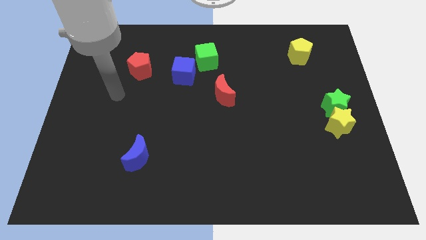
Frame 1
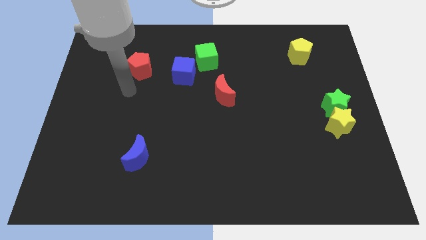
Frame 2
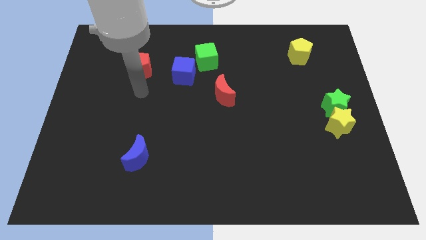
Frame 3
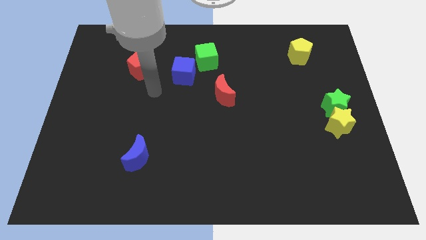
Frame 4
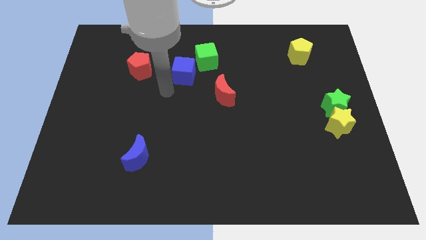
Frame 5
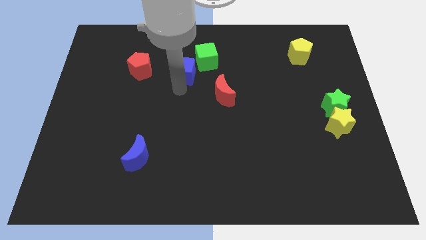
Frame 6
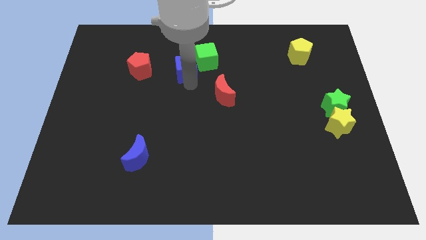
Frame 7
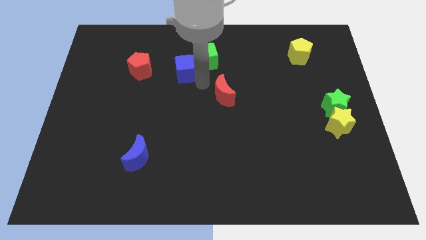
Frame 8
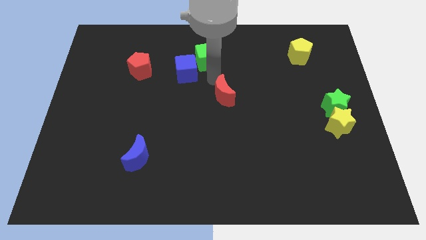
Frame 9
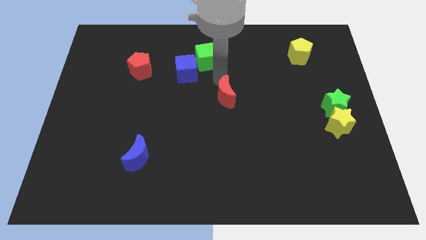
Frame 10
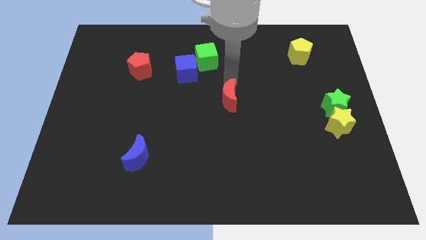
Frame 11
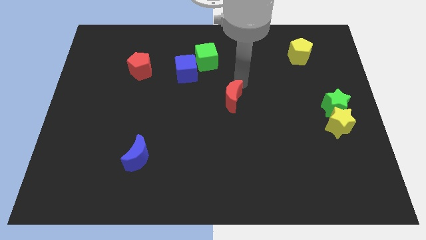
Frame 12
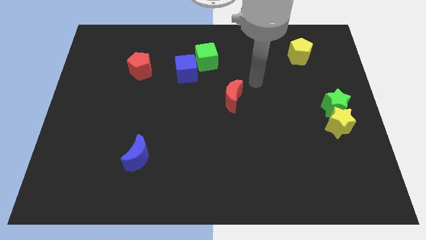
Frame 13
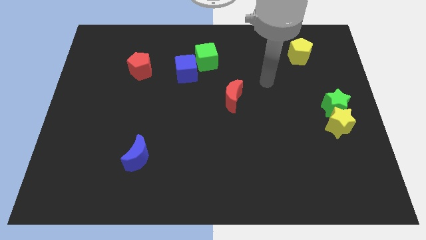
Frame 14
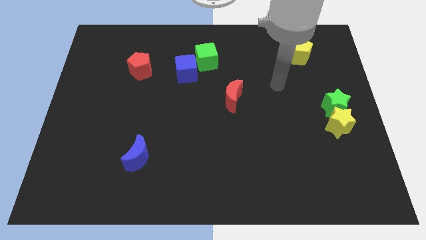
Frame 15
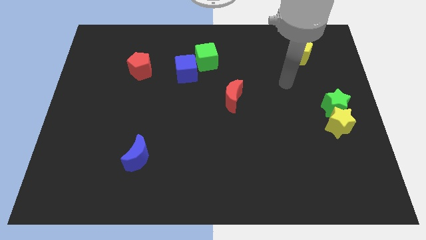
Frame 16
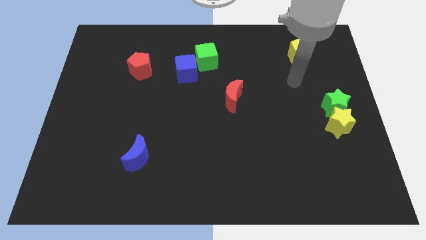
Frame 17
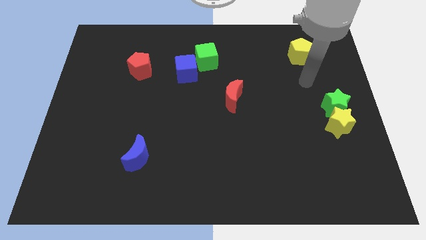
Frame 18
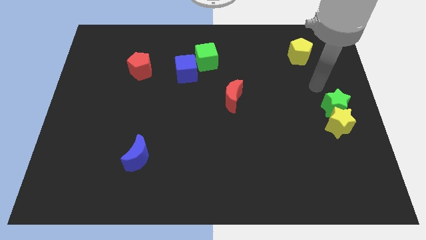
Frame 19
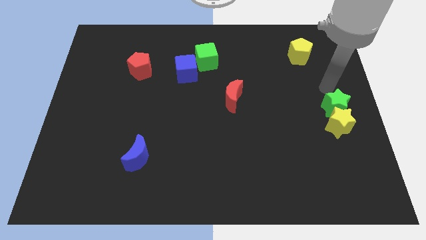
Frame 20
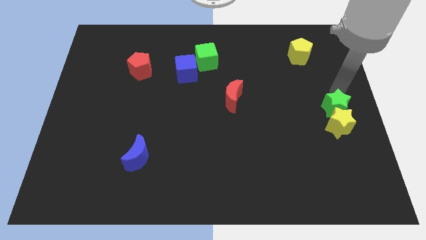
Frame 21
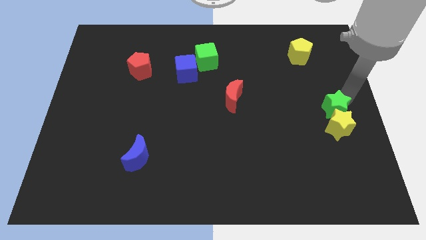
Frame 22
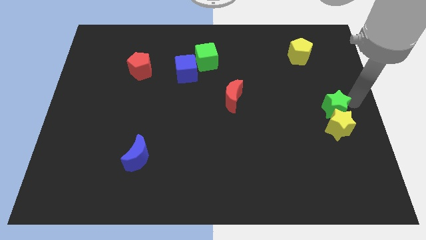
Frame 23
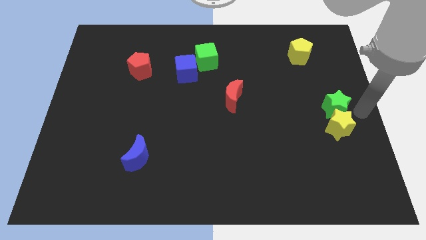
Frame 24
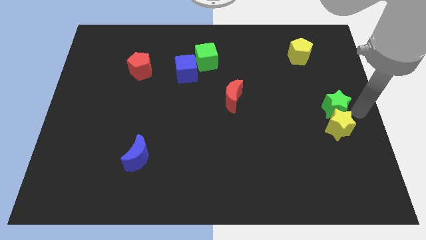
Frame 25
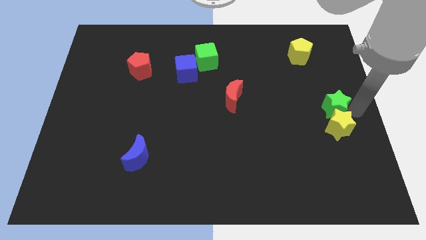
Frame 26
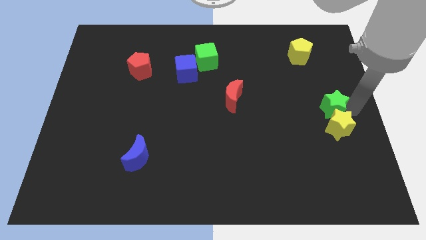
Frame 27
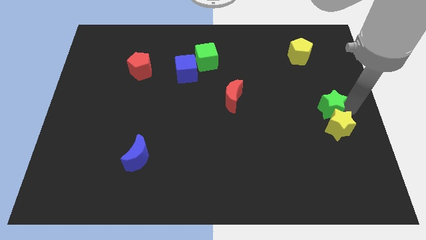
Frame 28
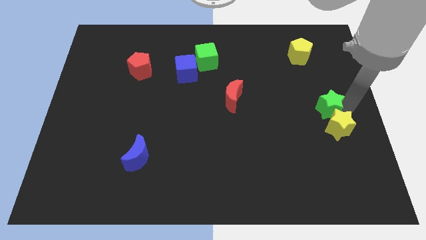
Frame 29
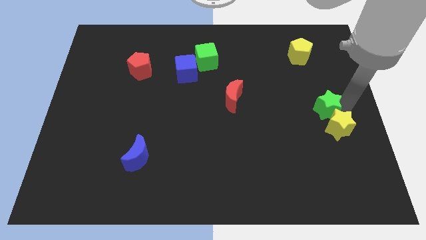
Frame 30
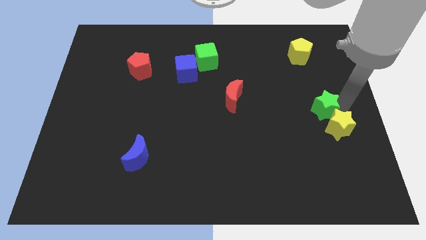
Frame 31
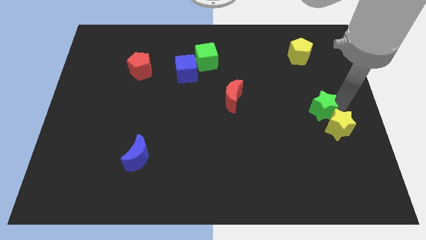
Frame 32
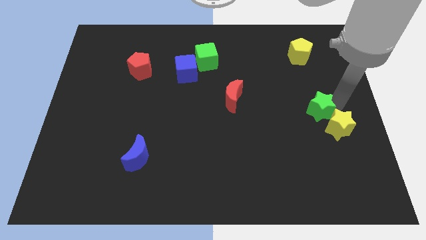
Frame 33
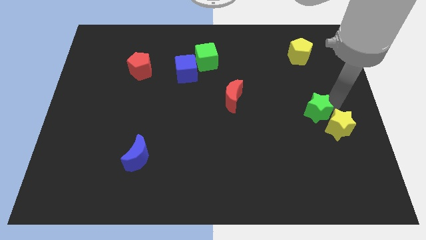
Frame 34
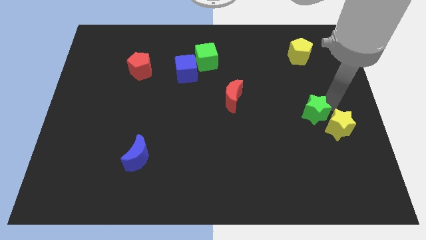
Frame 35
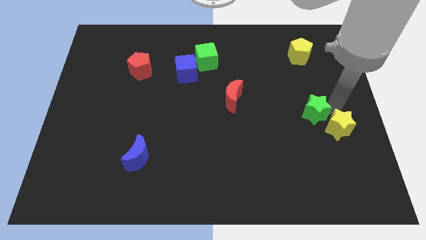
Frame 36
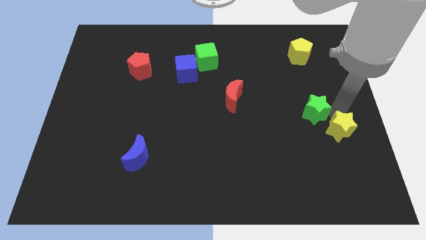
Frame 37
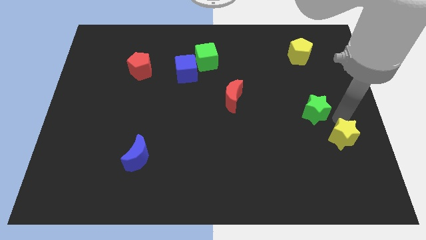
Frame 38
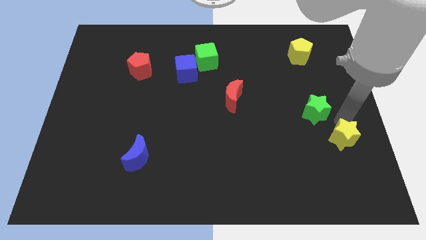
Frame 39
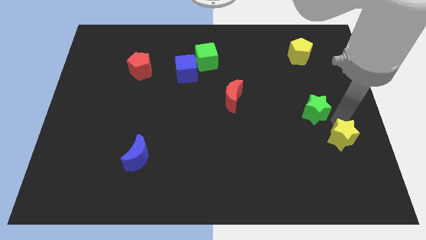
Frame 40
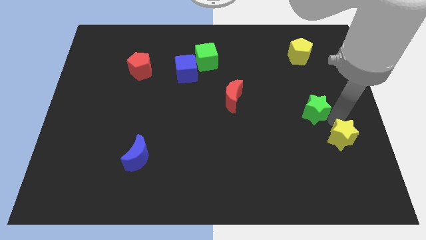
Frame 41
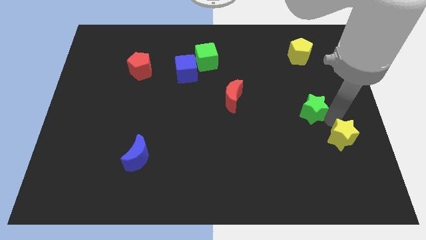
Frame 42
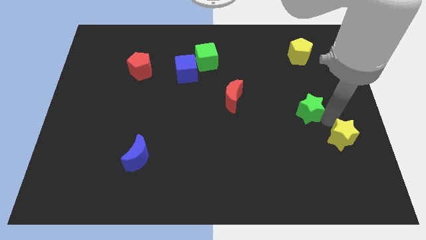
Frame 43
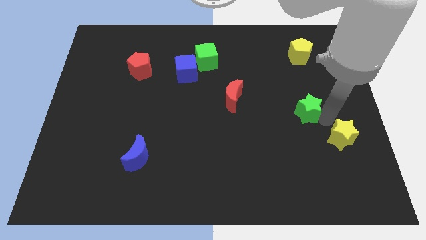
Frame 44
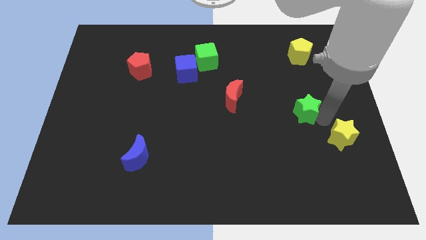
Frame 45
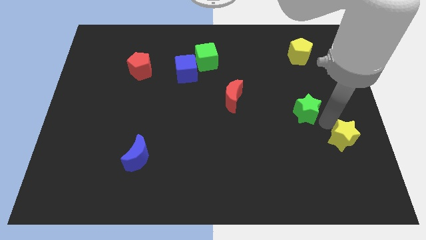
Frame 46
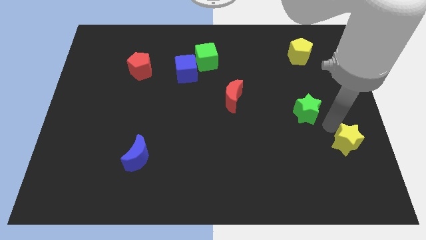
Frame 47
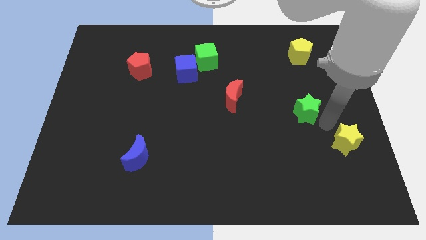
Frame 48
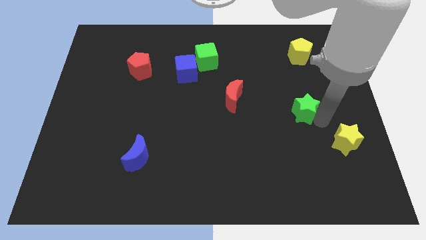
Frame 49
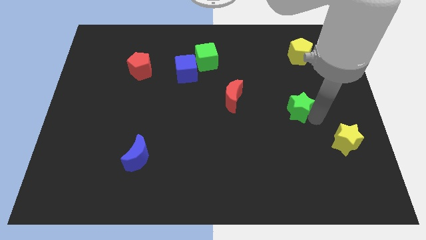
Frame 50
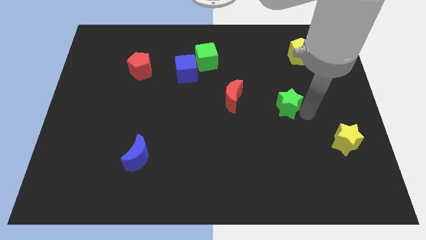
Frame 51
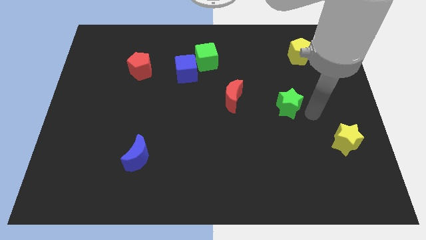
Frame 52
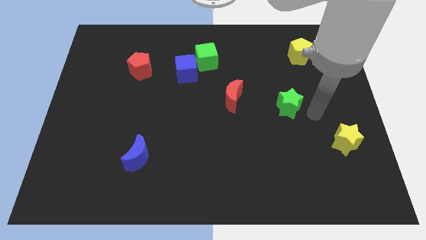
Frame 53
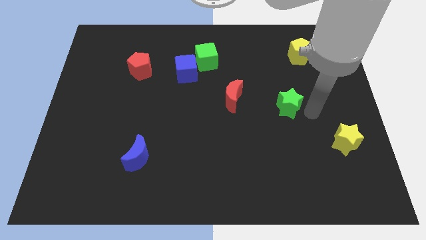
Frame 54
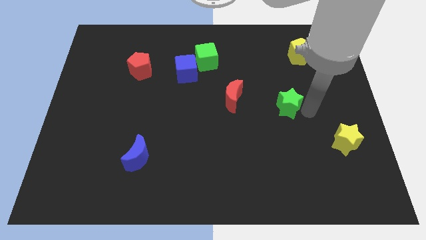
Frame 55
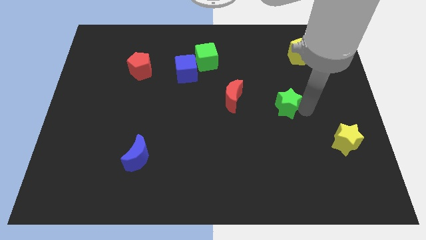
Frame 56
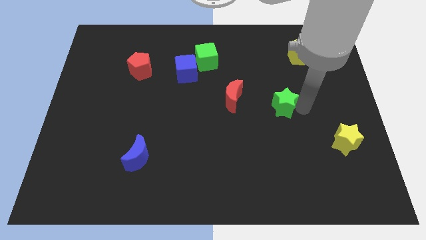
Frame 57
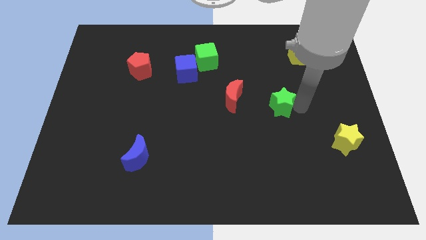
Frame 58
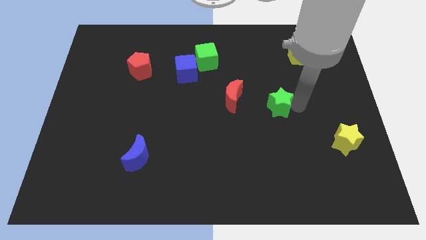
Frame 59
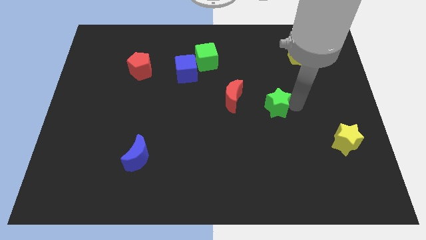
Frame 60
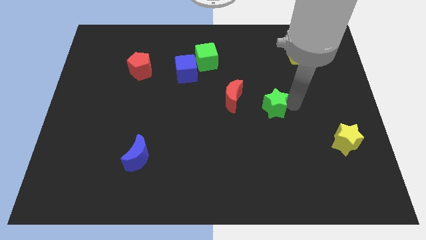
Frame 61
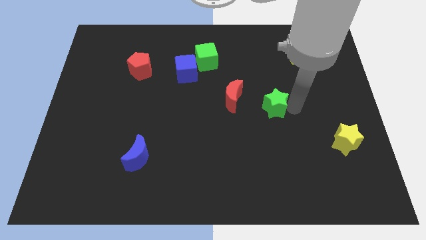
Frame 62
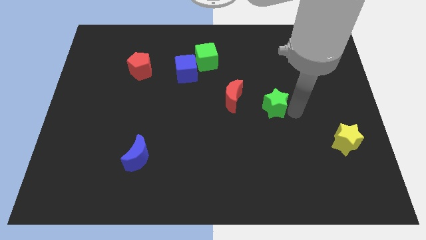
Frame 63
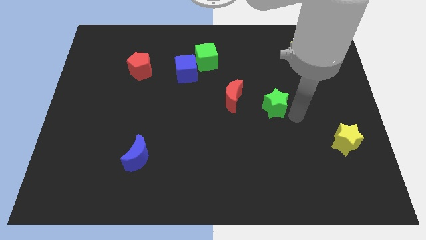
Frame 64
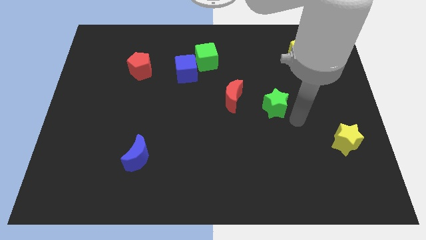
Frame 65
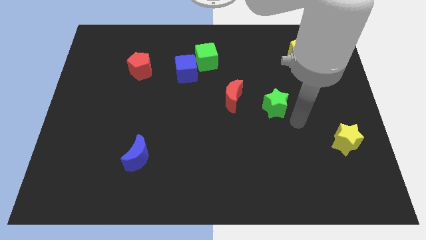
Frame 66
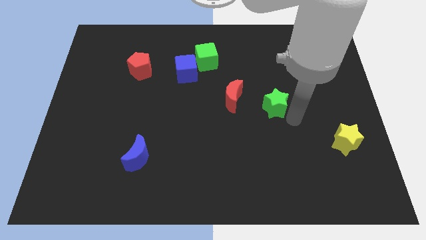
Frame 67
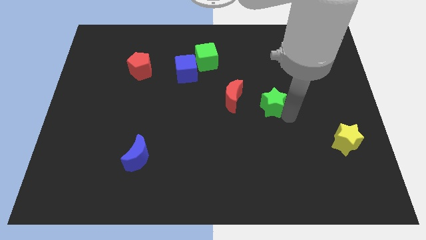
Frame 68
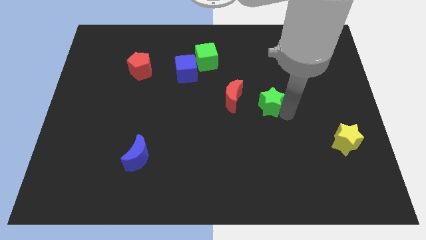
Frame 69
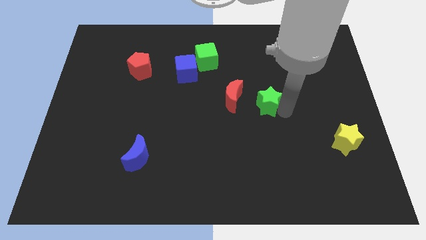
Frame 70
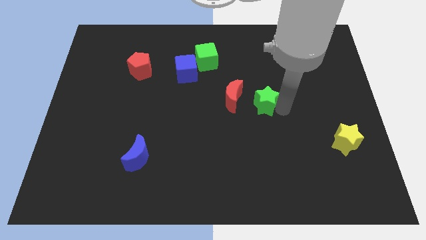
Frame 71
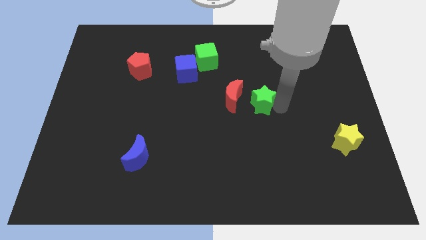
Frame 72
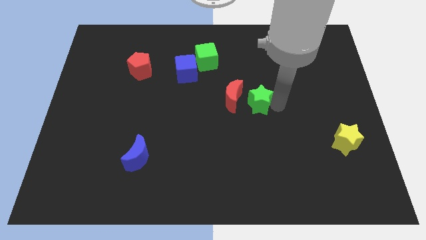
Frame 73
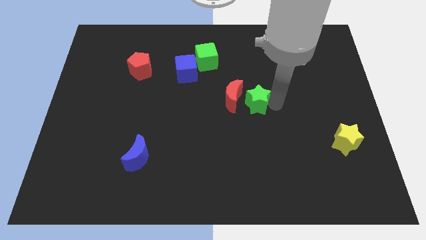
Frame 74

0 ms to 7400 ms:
push the green star to the red moon
